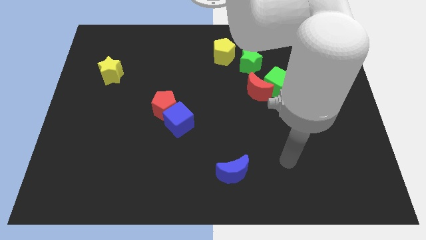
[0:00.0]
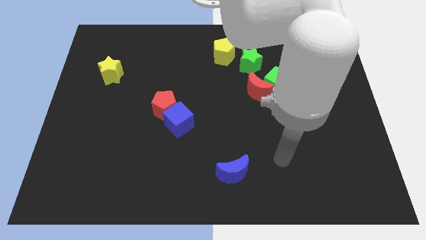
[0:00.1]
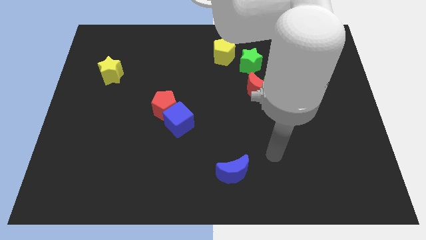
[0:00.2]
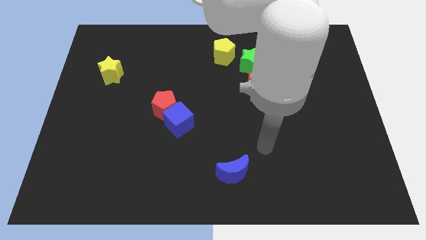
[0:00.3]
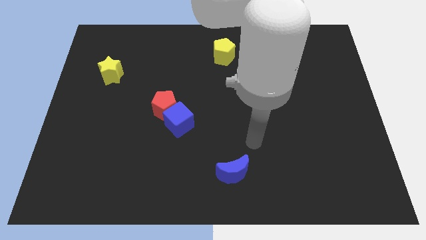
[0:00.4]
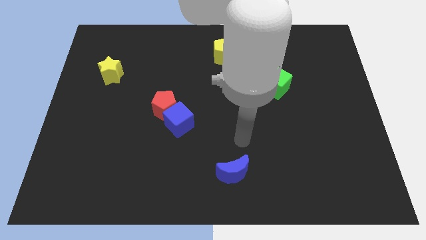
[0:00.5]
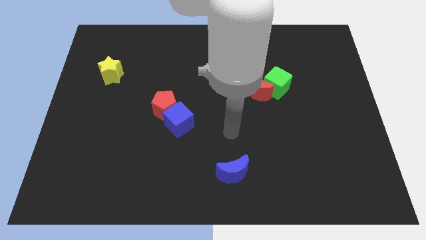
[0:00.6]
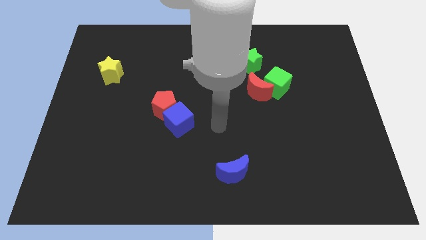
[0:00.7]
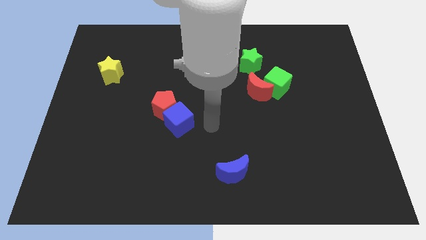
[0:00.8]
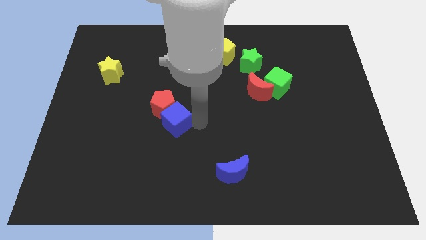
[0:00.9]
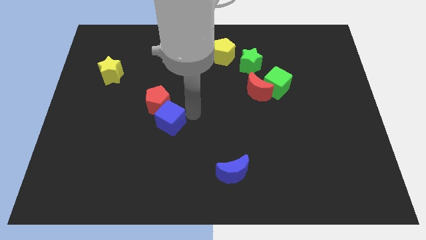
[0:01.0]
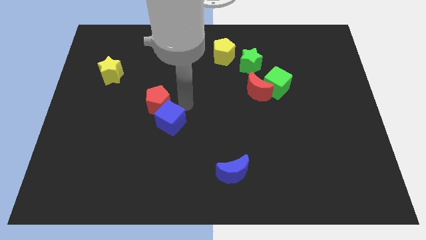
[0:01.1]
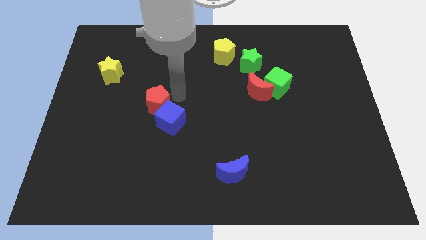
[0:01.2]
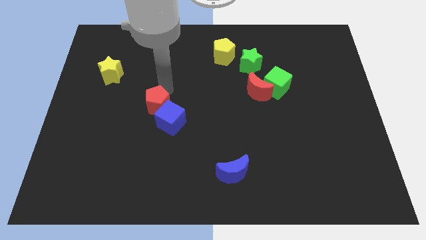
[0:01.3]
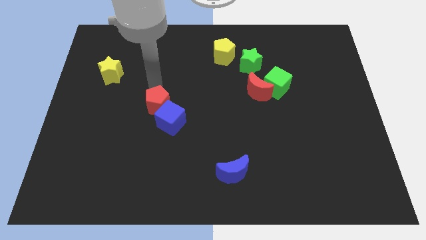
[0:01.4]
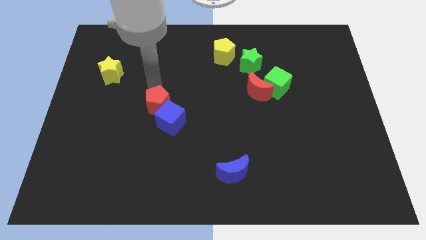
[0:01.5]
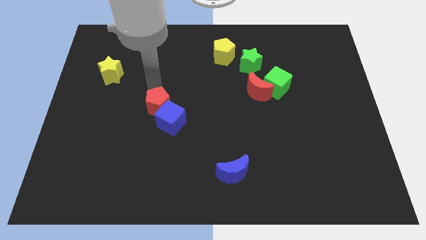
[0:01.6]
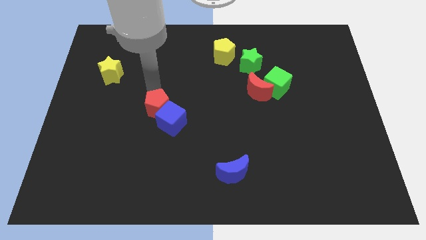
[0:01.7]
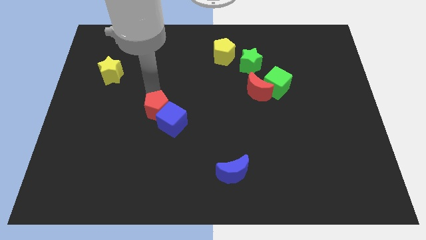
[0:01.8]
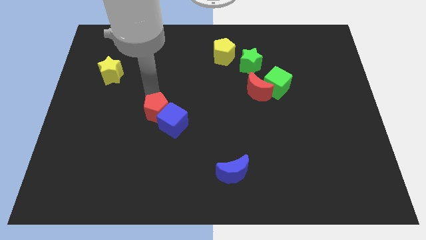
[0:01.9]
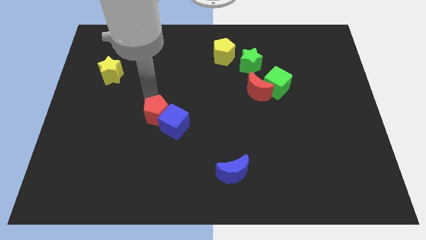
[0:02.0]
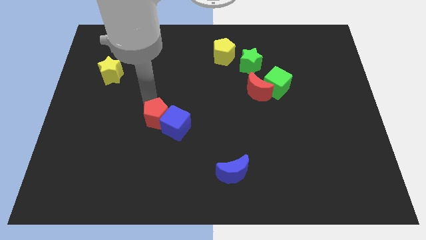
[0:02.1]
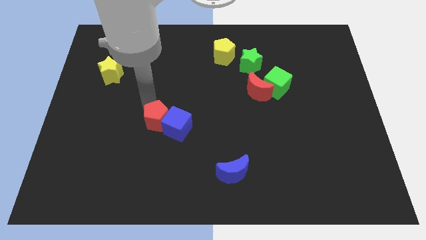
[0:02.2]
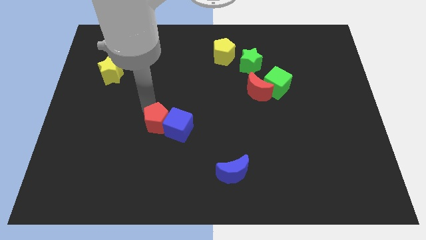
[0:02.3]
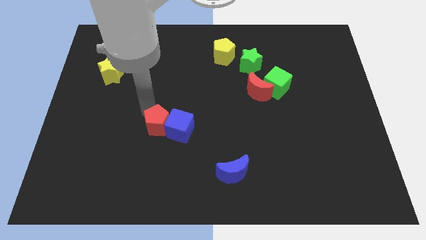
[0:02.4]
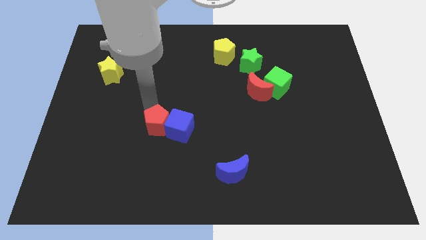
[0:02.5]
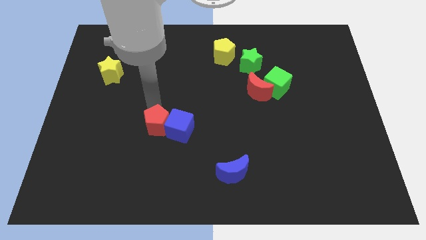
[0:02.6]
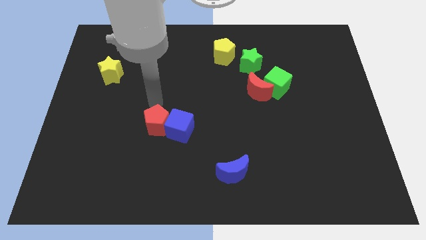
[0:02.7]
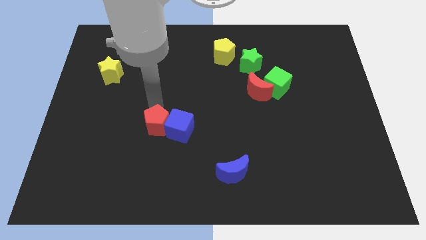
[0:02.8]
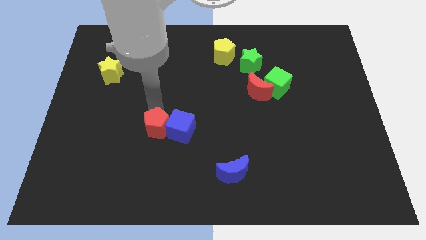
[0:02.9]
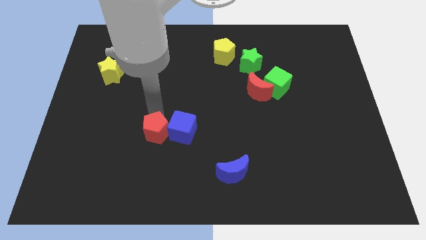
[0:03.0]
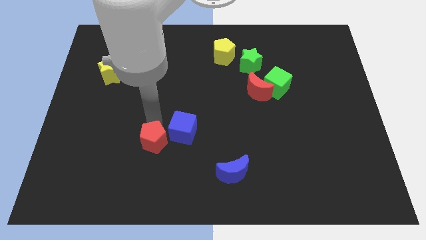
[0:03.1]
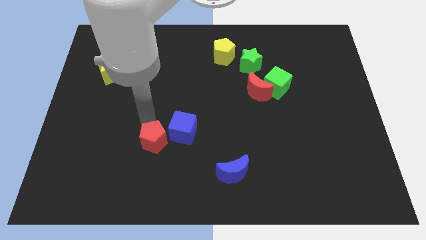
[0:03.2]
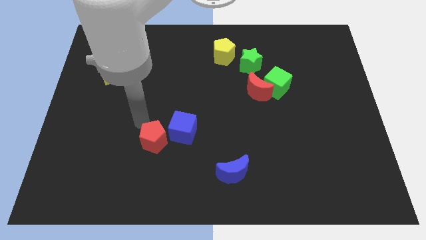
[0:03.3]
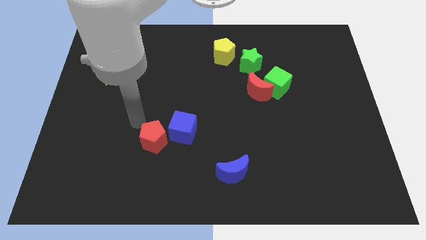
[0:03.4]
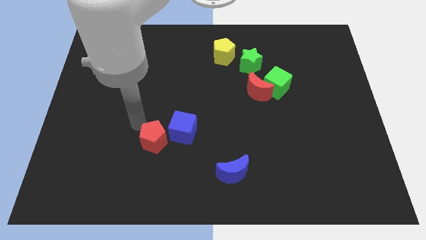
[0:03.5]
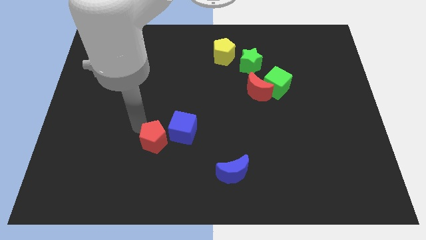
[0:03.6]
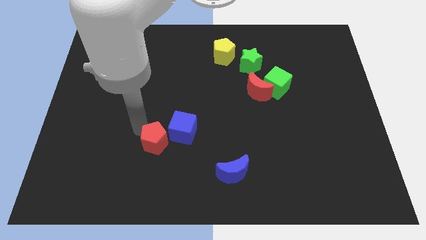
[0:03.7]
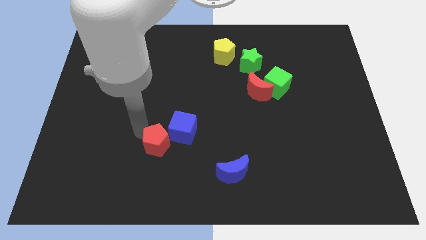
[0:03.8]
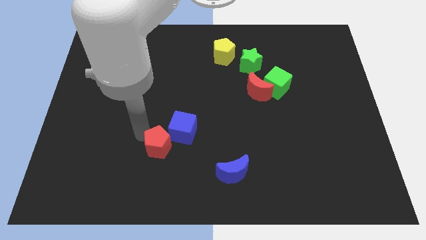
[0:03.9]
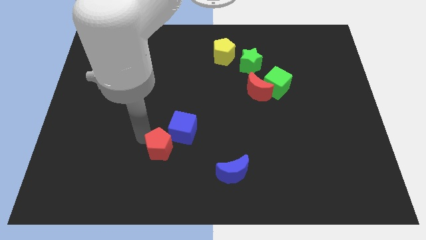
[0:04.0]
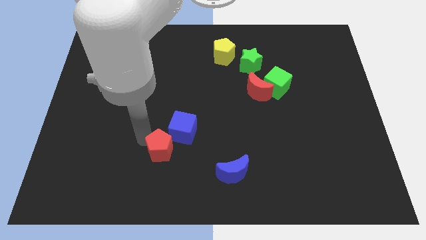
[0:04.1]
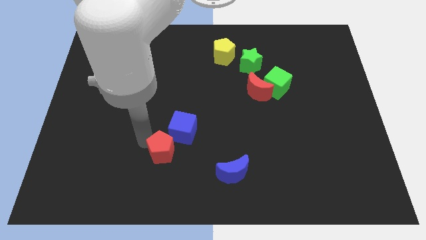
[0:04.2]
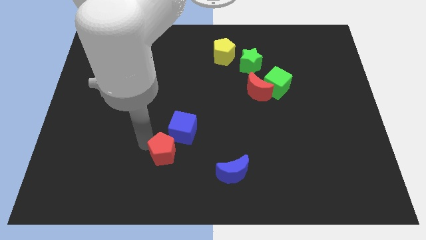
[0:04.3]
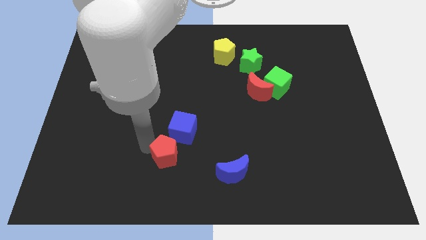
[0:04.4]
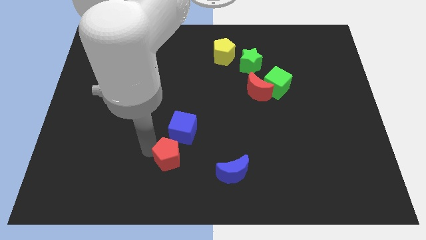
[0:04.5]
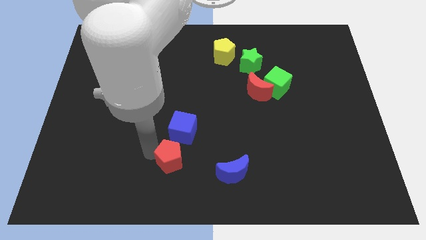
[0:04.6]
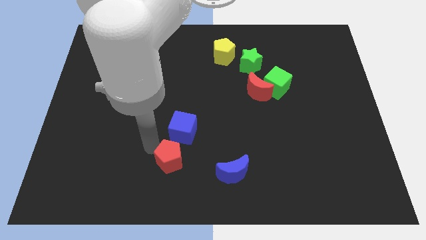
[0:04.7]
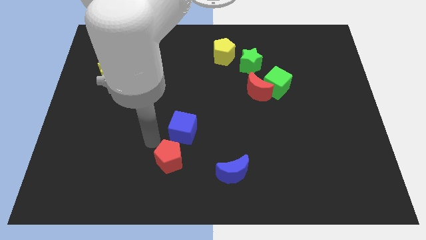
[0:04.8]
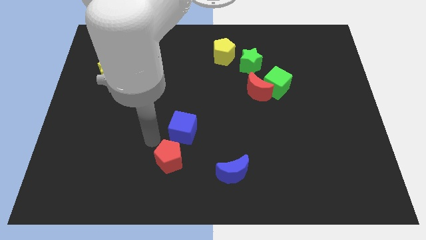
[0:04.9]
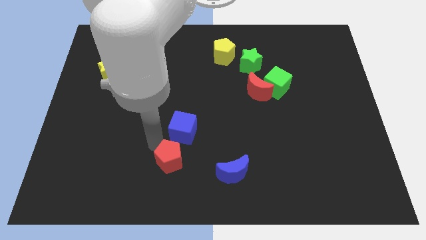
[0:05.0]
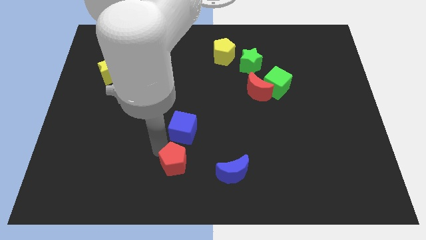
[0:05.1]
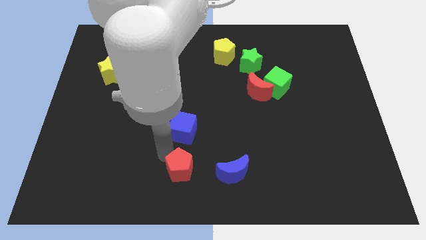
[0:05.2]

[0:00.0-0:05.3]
slide the red pentagon to the bottom
